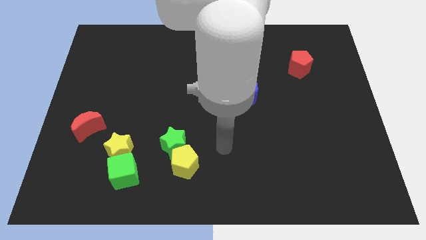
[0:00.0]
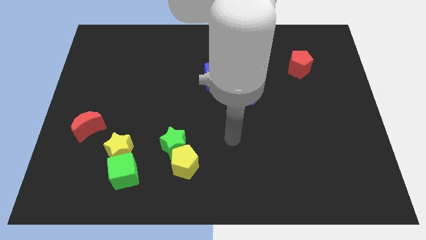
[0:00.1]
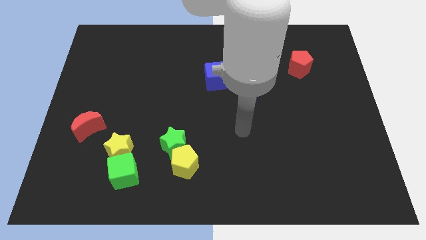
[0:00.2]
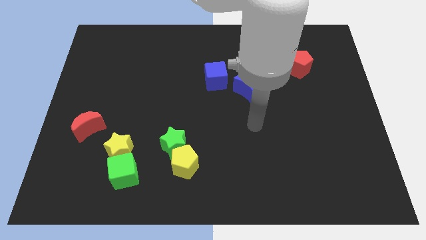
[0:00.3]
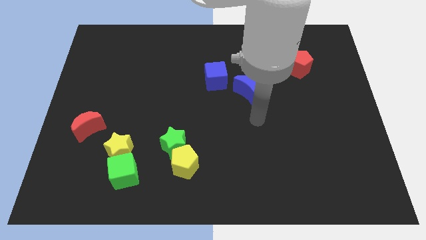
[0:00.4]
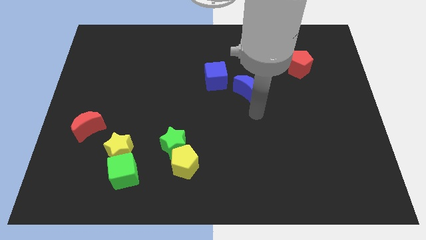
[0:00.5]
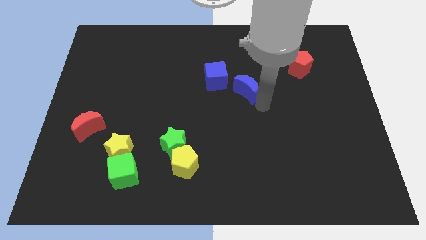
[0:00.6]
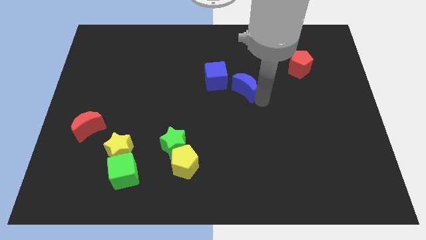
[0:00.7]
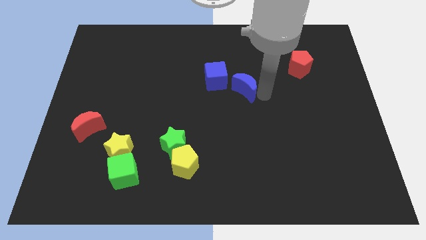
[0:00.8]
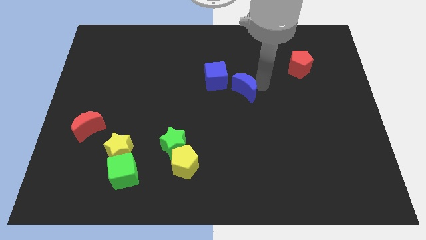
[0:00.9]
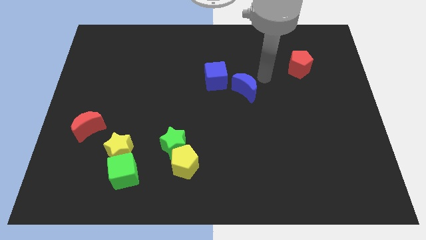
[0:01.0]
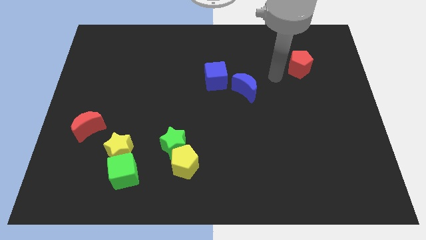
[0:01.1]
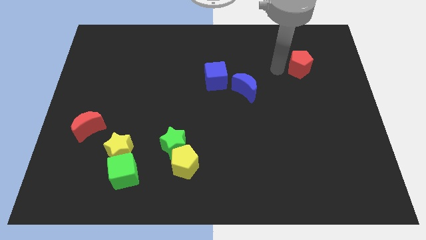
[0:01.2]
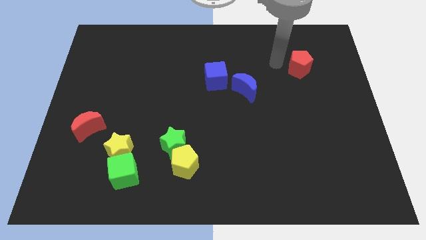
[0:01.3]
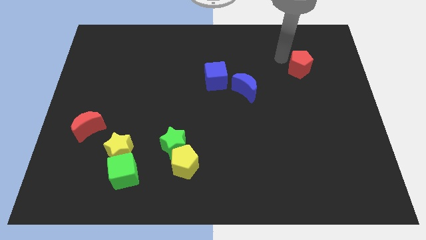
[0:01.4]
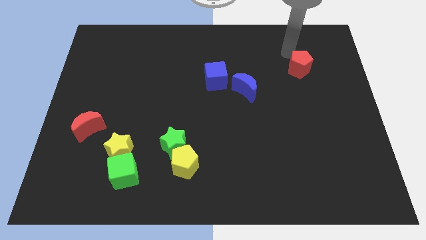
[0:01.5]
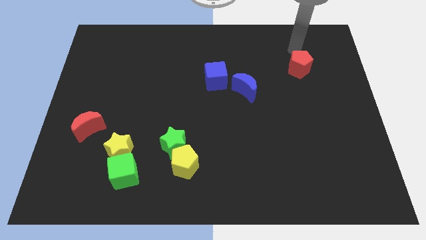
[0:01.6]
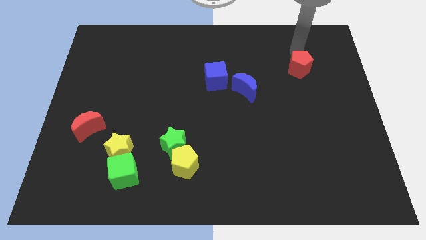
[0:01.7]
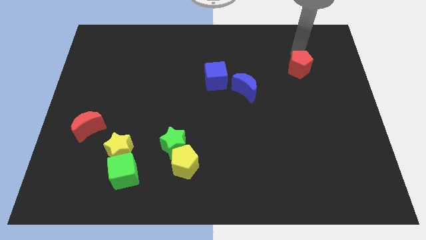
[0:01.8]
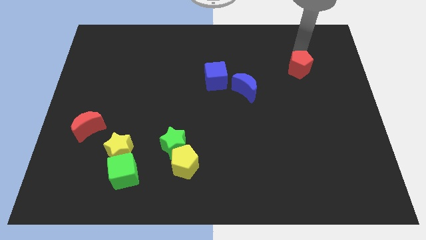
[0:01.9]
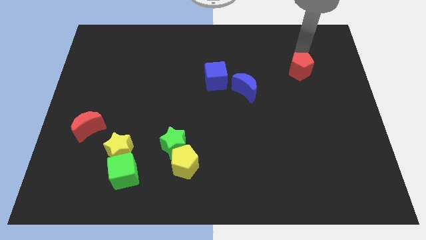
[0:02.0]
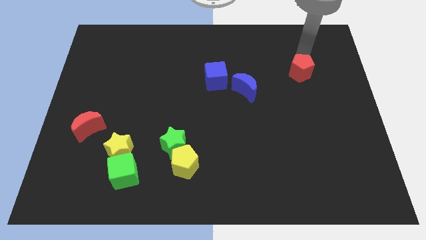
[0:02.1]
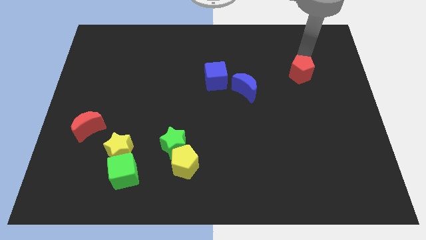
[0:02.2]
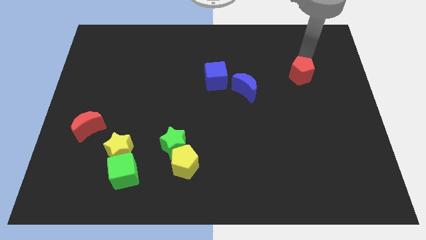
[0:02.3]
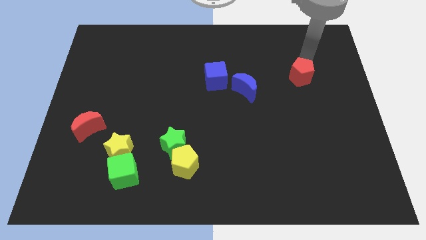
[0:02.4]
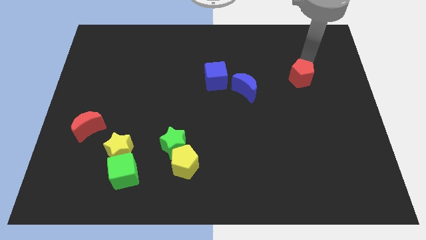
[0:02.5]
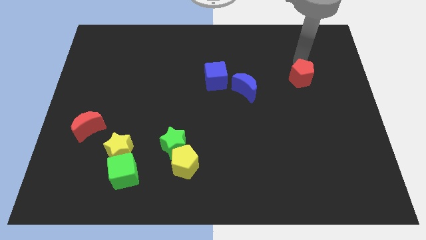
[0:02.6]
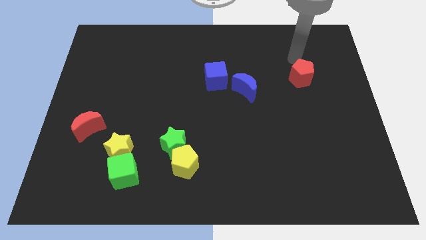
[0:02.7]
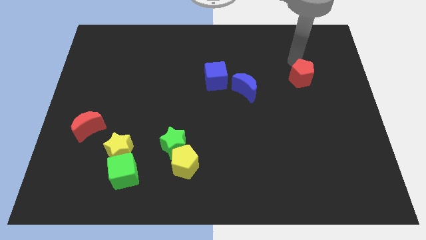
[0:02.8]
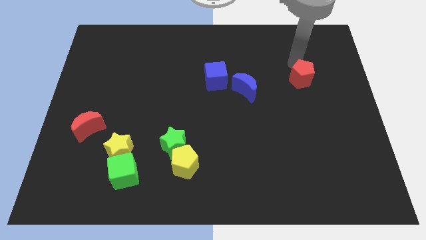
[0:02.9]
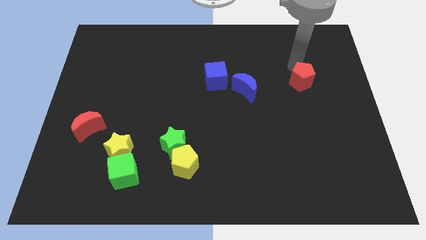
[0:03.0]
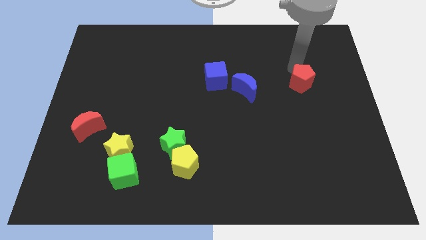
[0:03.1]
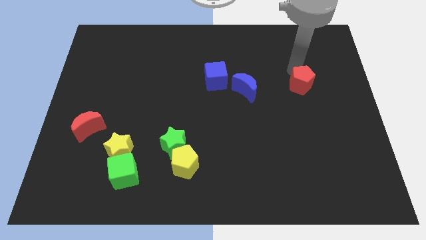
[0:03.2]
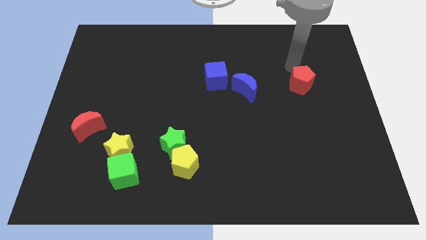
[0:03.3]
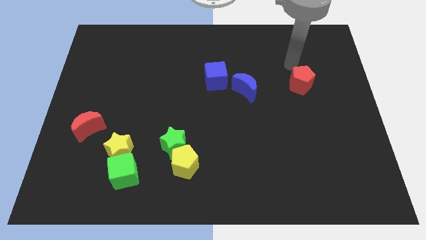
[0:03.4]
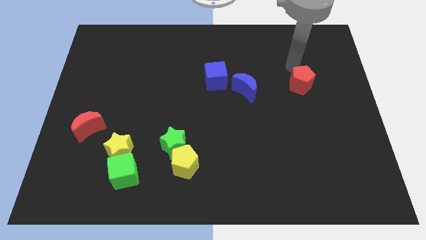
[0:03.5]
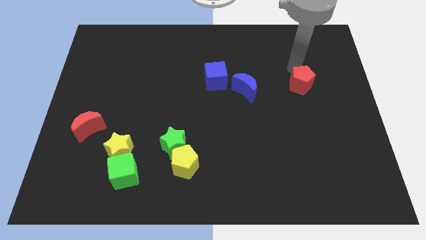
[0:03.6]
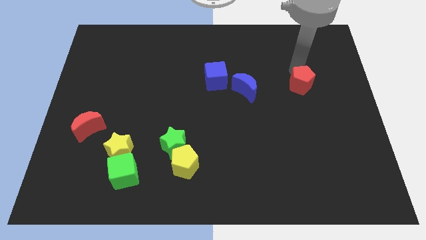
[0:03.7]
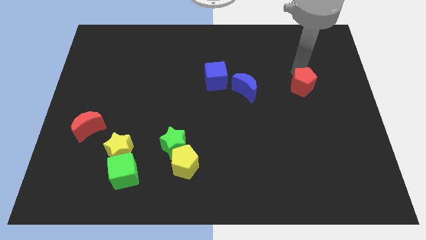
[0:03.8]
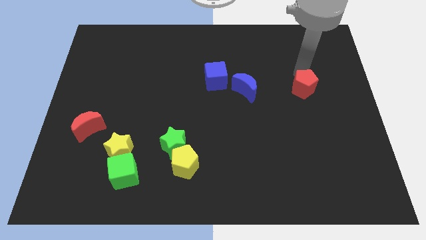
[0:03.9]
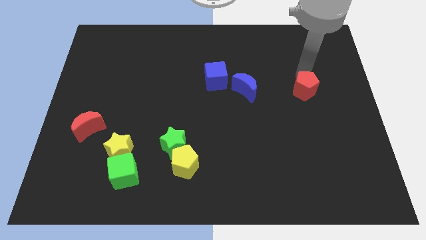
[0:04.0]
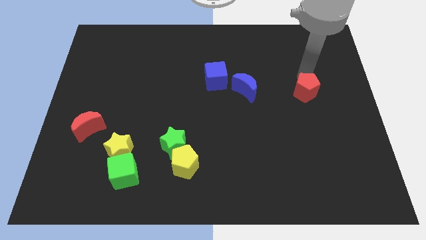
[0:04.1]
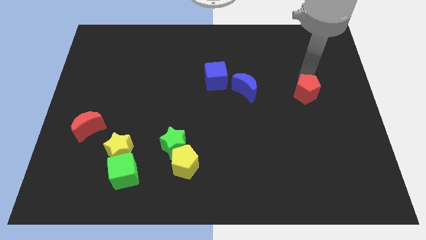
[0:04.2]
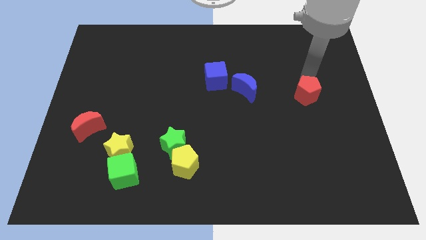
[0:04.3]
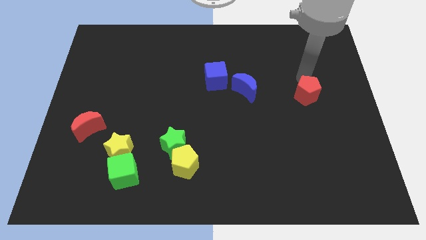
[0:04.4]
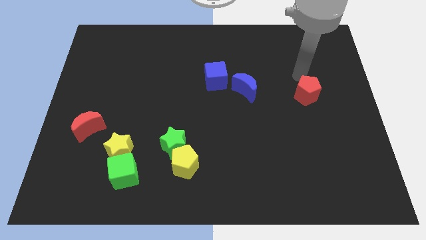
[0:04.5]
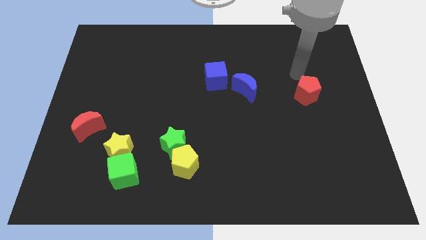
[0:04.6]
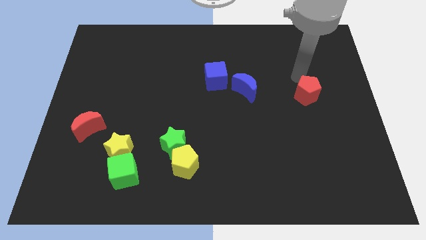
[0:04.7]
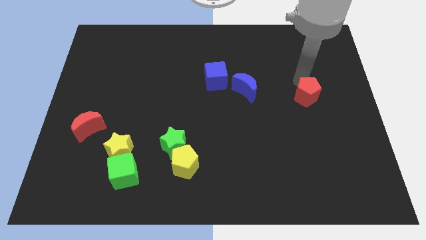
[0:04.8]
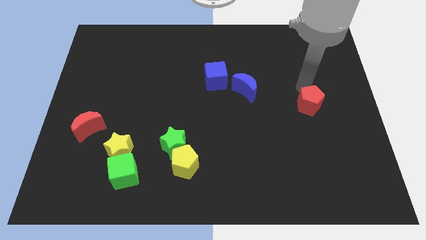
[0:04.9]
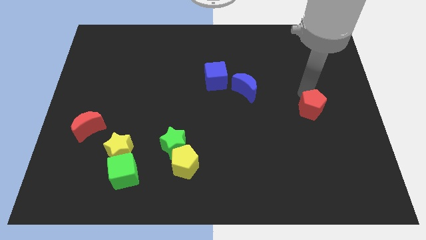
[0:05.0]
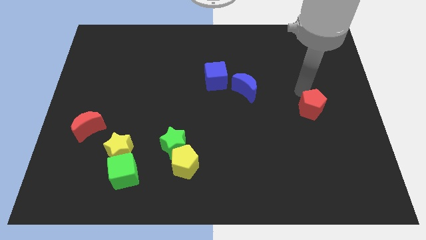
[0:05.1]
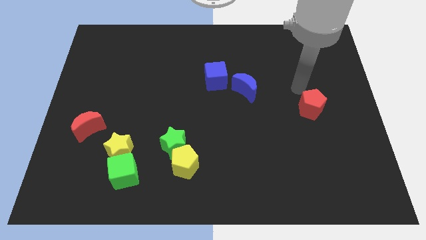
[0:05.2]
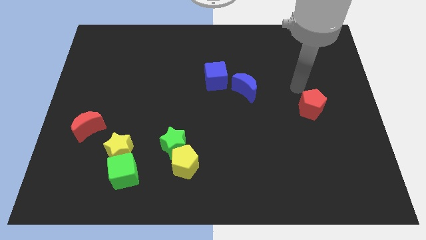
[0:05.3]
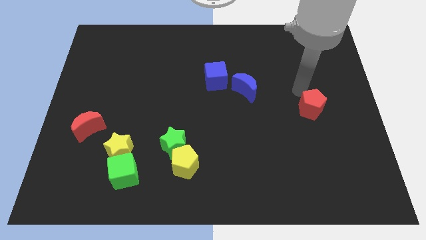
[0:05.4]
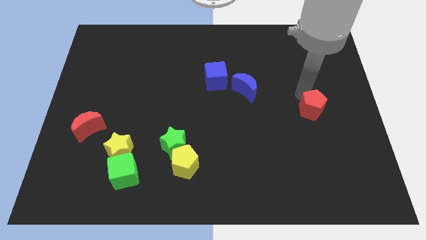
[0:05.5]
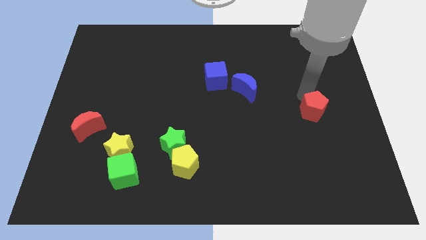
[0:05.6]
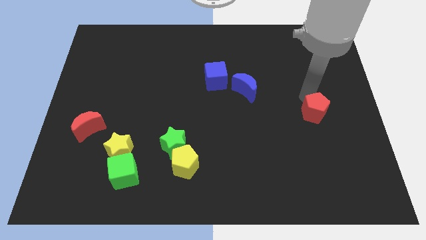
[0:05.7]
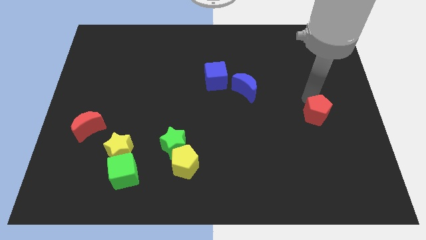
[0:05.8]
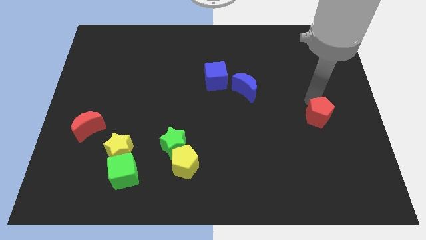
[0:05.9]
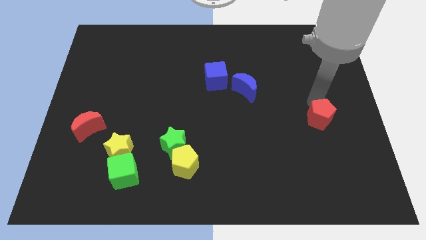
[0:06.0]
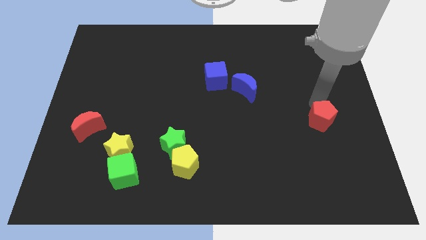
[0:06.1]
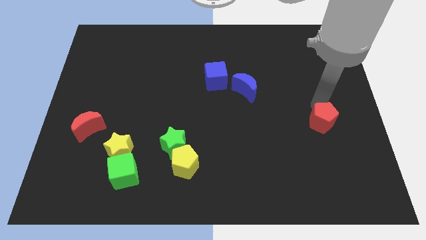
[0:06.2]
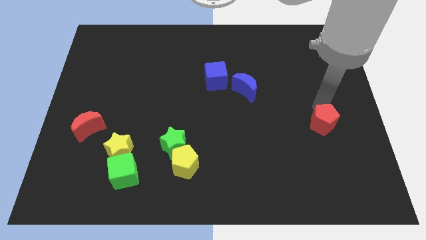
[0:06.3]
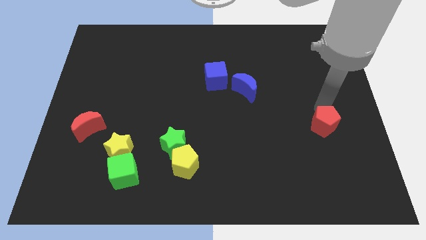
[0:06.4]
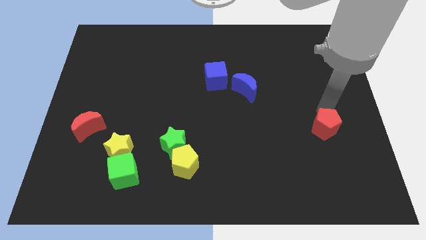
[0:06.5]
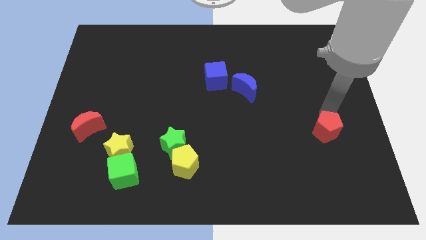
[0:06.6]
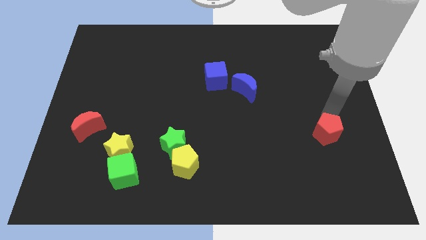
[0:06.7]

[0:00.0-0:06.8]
slide the red pentagon down

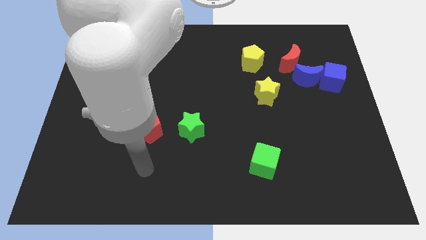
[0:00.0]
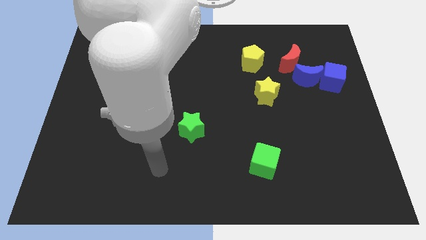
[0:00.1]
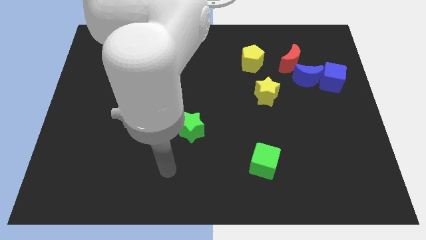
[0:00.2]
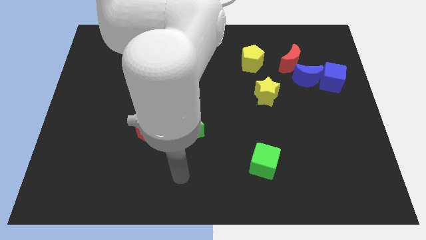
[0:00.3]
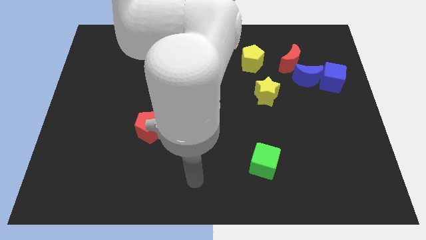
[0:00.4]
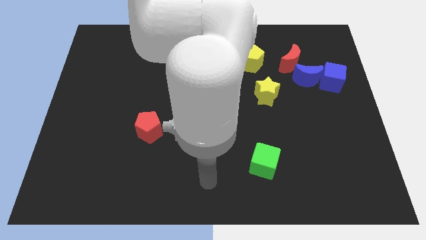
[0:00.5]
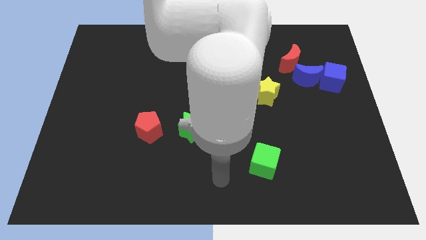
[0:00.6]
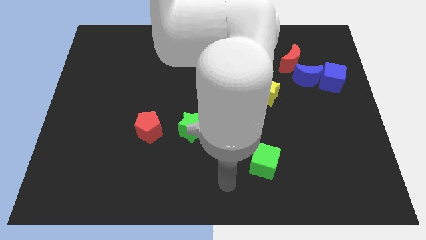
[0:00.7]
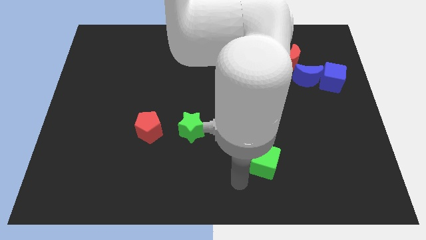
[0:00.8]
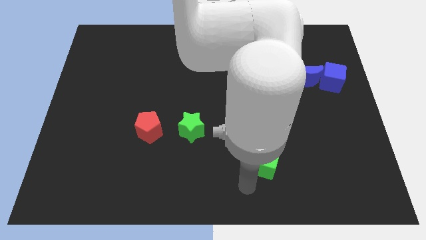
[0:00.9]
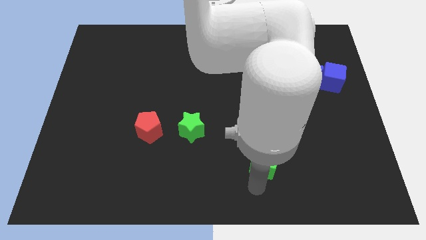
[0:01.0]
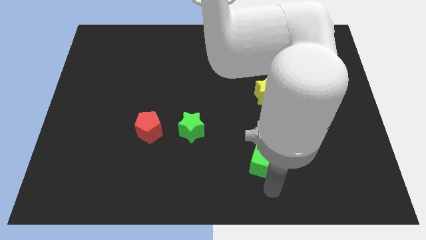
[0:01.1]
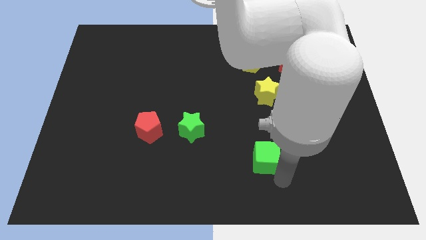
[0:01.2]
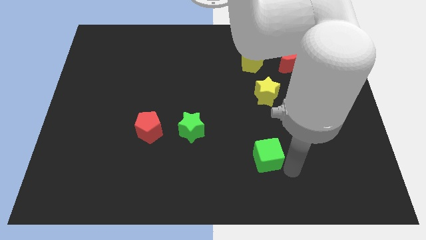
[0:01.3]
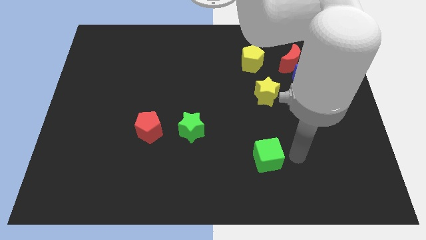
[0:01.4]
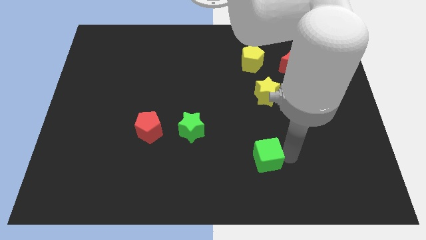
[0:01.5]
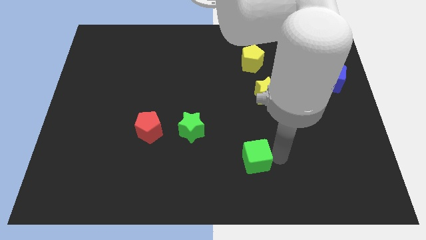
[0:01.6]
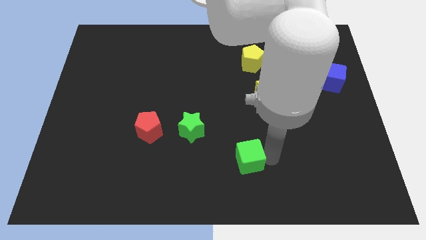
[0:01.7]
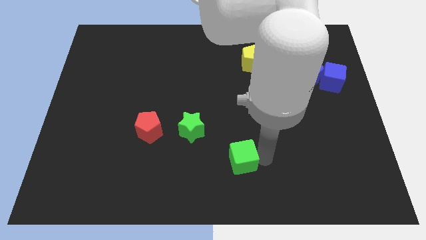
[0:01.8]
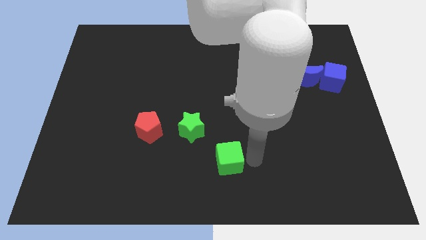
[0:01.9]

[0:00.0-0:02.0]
slightly push the green cube to the left
